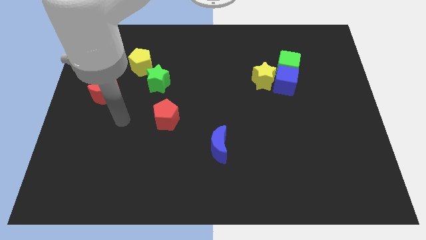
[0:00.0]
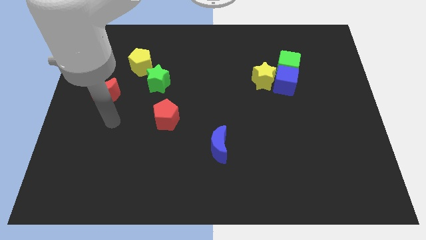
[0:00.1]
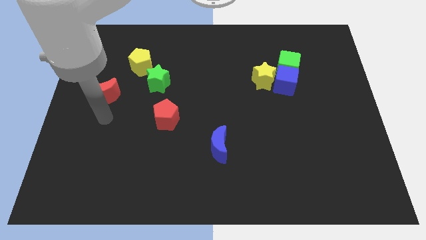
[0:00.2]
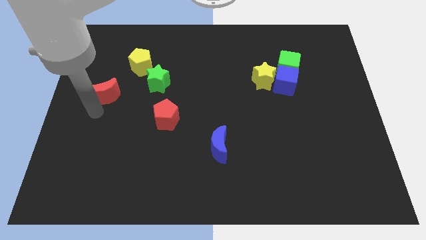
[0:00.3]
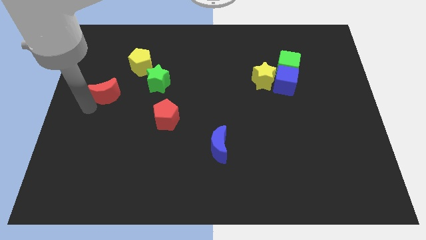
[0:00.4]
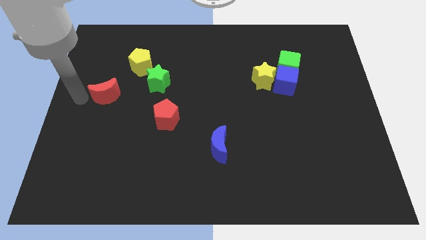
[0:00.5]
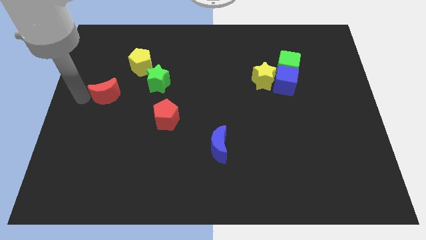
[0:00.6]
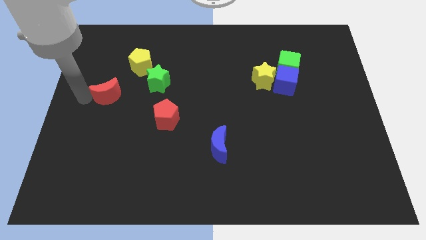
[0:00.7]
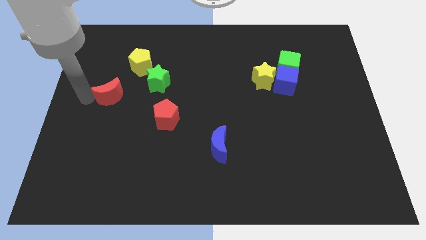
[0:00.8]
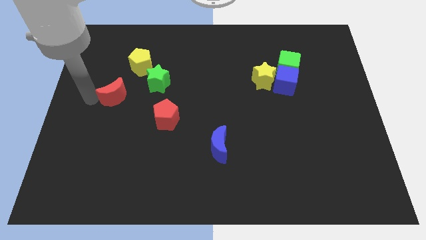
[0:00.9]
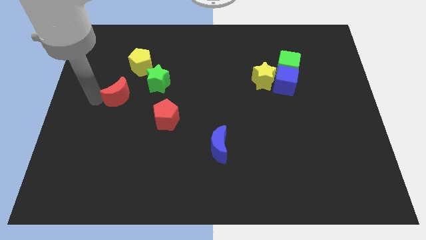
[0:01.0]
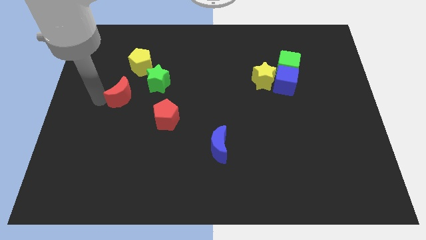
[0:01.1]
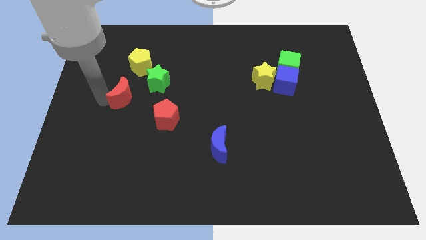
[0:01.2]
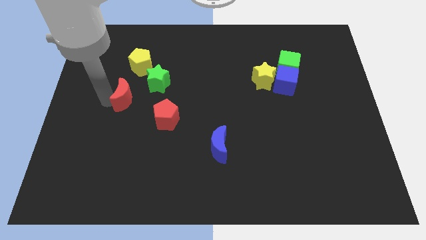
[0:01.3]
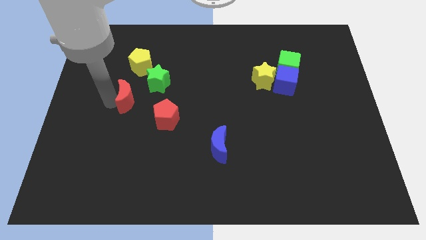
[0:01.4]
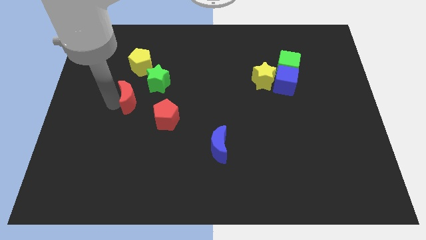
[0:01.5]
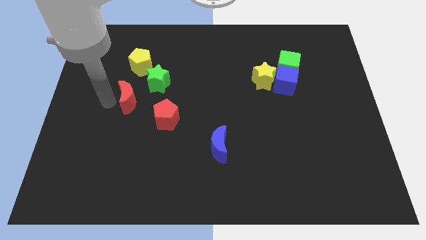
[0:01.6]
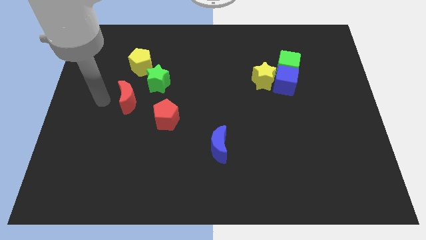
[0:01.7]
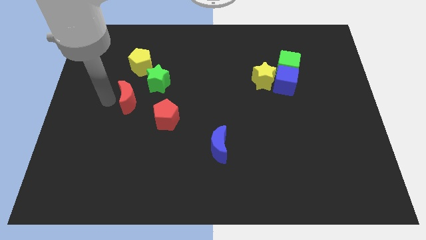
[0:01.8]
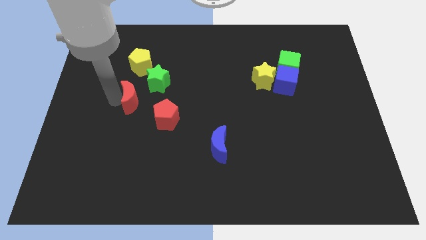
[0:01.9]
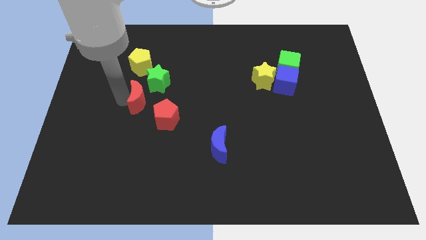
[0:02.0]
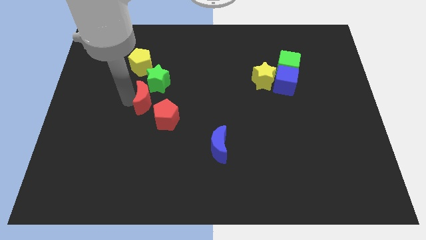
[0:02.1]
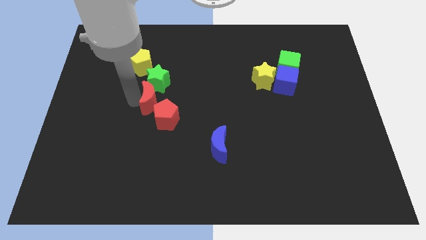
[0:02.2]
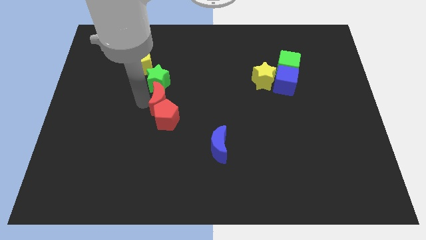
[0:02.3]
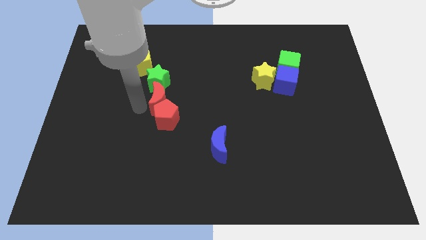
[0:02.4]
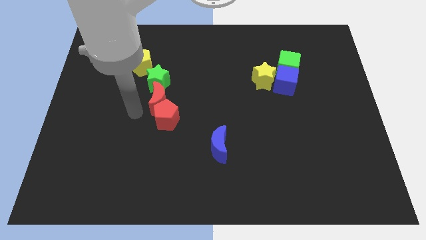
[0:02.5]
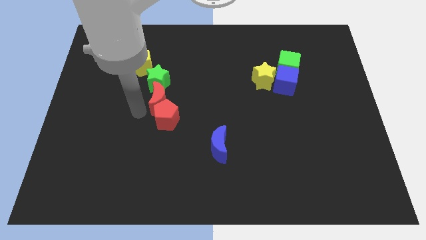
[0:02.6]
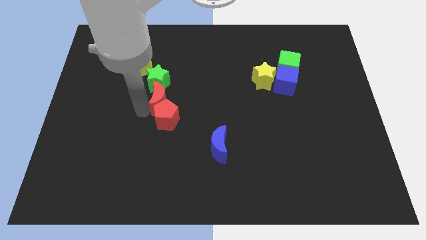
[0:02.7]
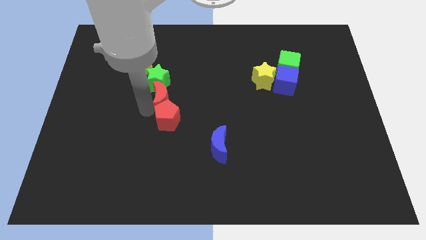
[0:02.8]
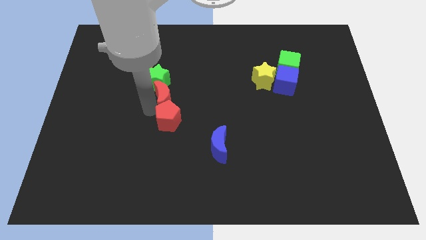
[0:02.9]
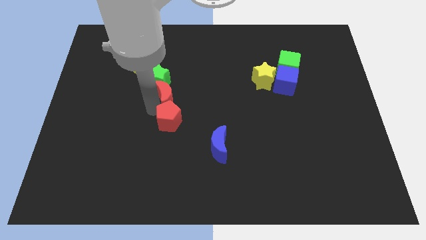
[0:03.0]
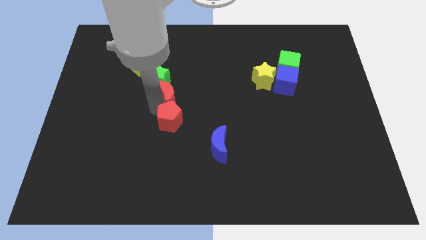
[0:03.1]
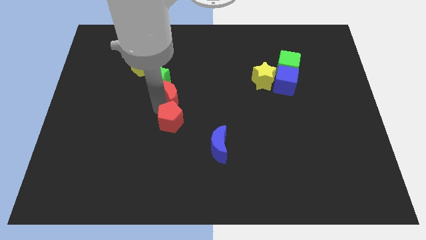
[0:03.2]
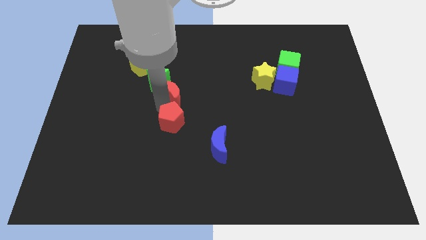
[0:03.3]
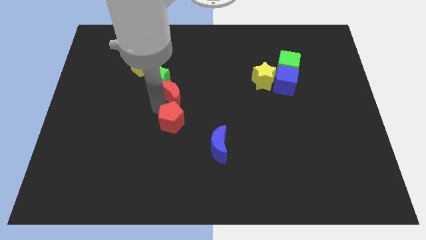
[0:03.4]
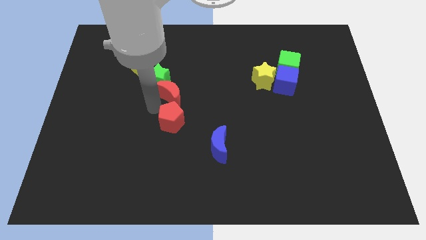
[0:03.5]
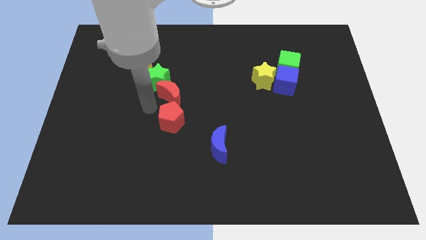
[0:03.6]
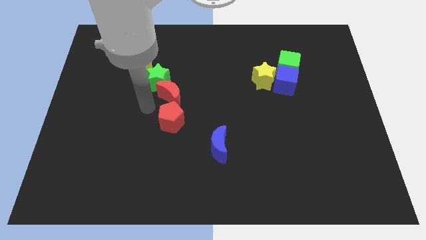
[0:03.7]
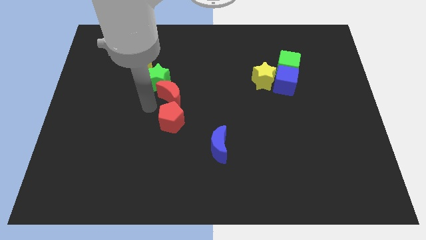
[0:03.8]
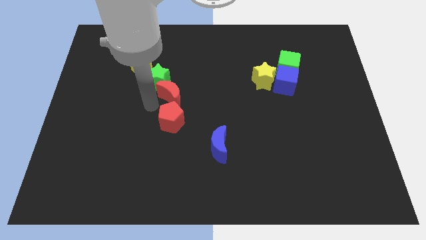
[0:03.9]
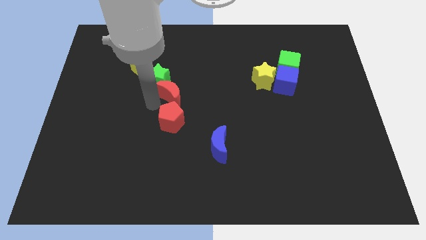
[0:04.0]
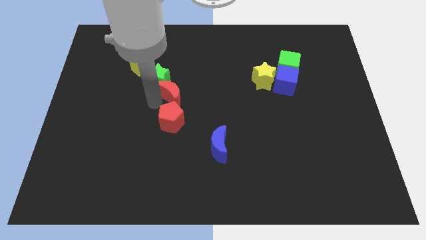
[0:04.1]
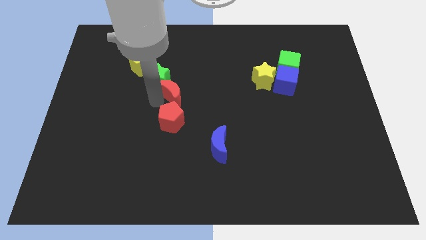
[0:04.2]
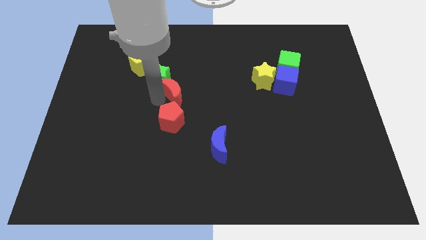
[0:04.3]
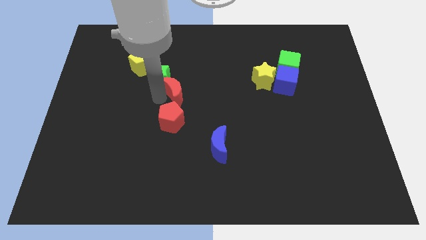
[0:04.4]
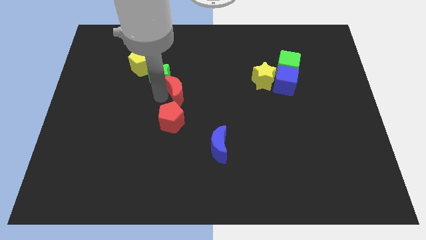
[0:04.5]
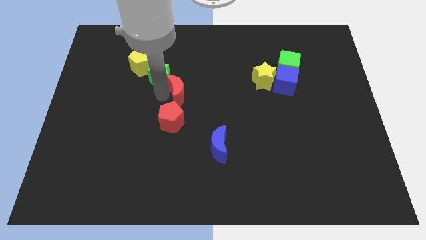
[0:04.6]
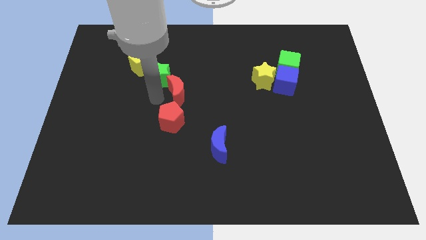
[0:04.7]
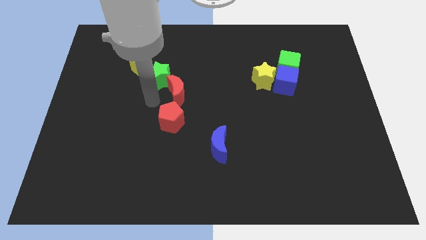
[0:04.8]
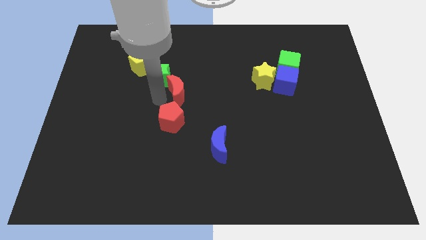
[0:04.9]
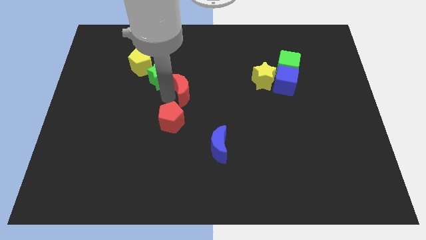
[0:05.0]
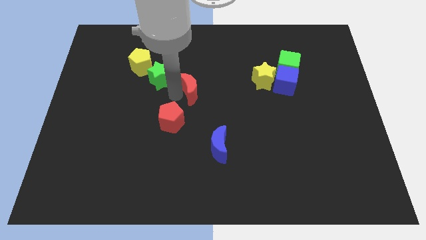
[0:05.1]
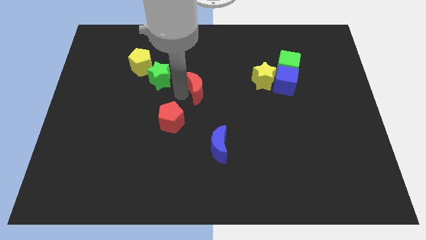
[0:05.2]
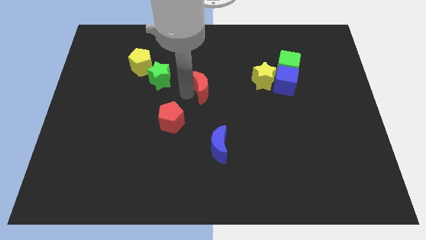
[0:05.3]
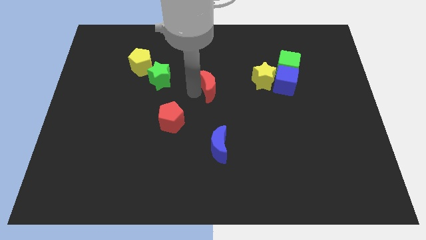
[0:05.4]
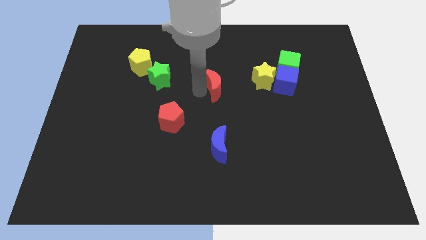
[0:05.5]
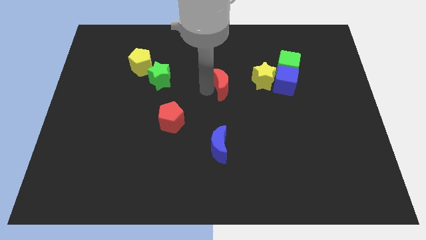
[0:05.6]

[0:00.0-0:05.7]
move the red moon to the left of the blue cube

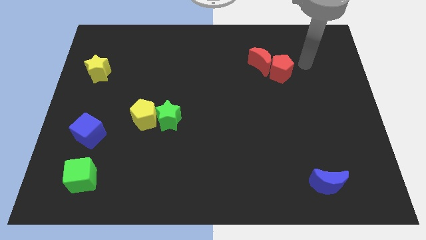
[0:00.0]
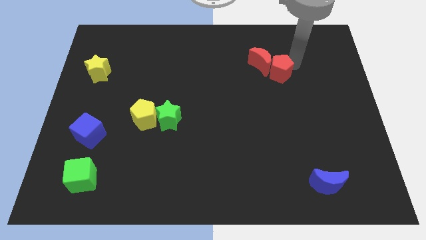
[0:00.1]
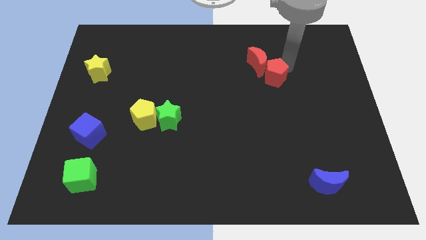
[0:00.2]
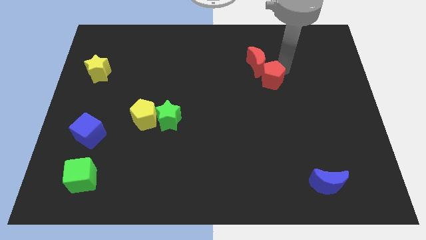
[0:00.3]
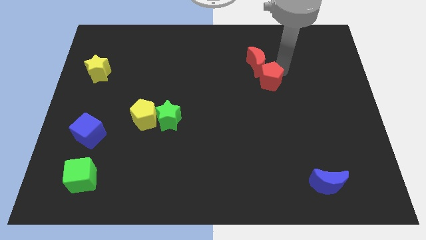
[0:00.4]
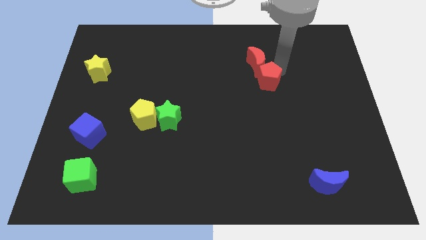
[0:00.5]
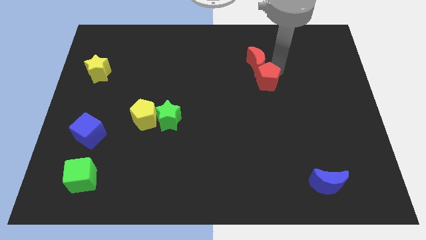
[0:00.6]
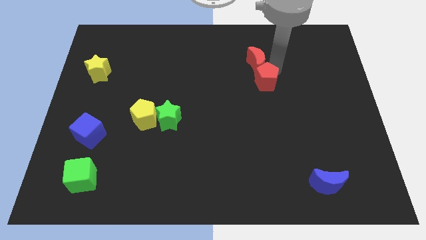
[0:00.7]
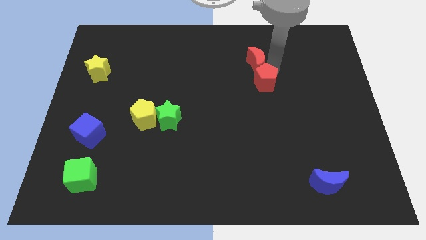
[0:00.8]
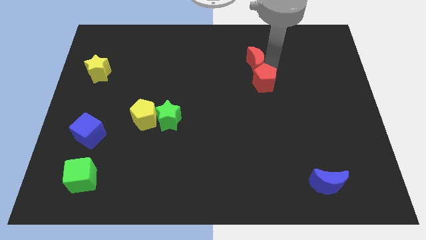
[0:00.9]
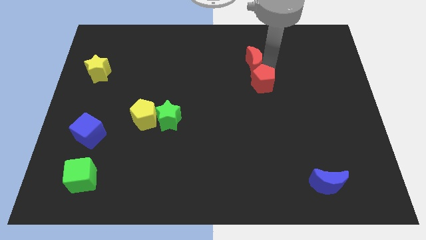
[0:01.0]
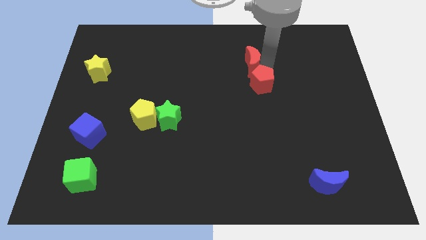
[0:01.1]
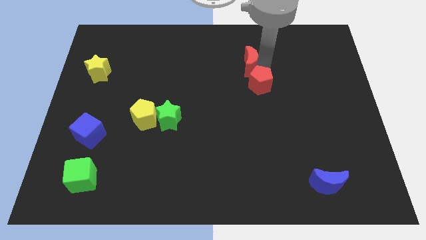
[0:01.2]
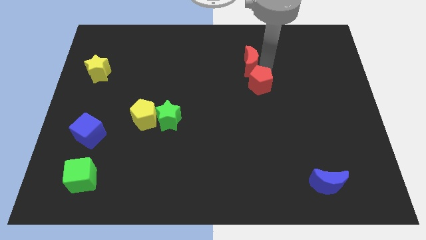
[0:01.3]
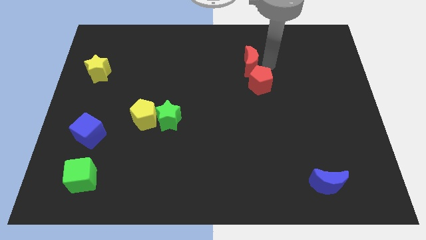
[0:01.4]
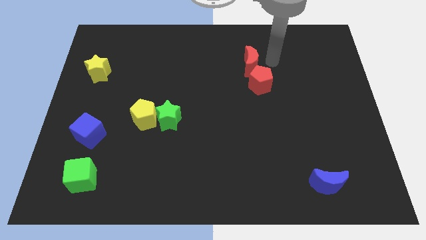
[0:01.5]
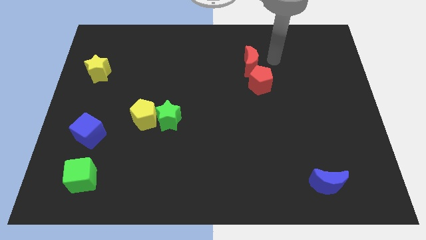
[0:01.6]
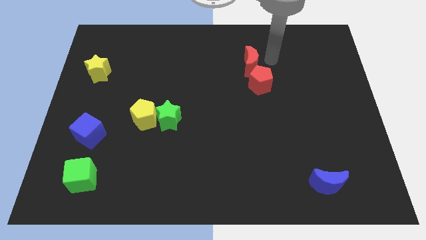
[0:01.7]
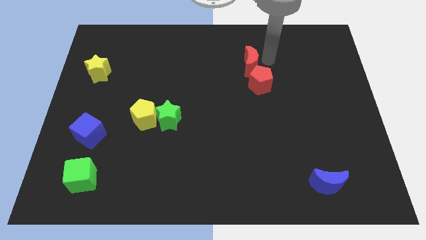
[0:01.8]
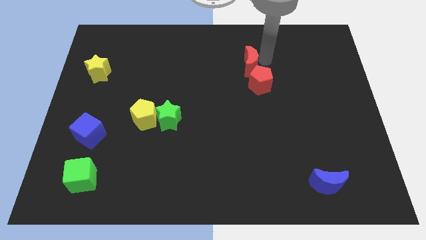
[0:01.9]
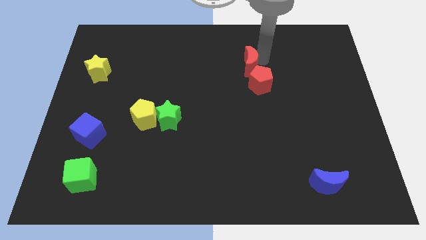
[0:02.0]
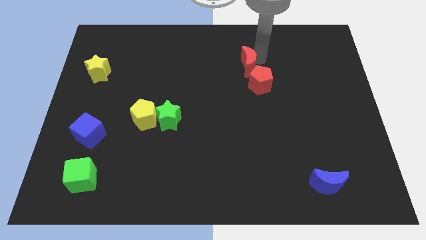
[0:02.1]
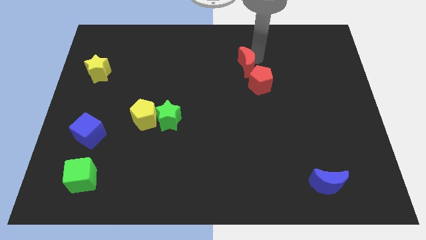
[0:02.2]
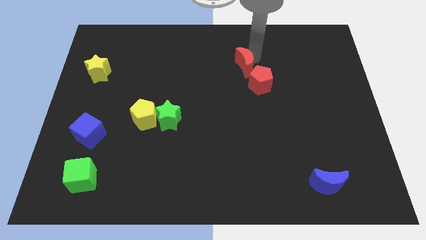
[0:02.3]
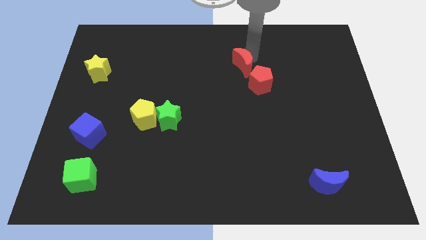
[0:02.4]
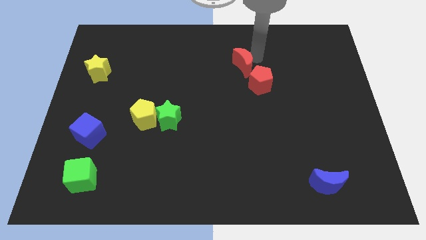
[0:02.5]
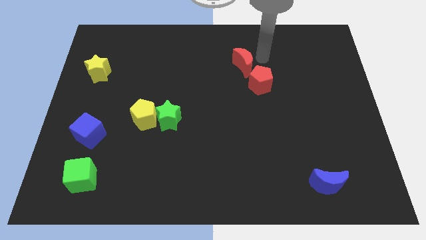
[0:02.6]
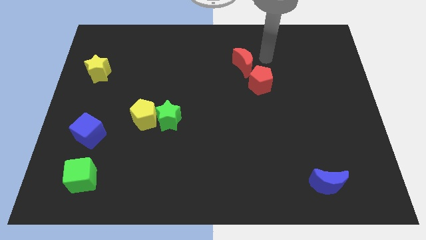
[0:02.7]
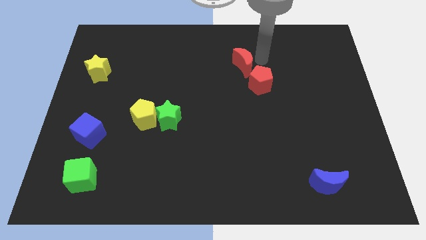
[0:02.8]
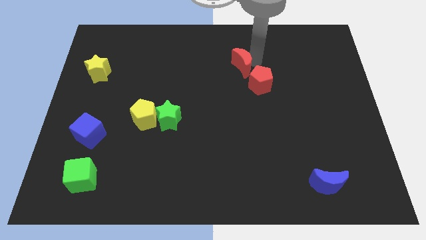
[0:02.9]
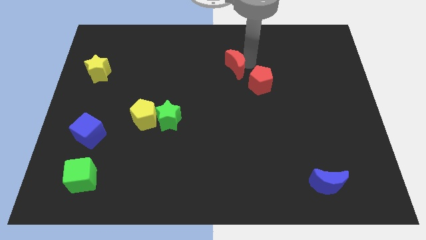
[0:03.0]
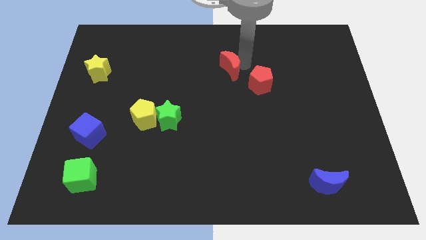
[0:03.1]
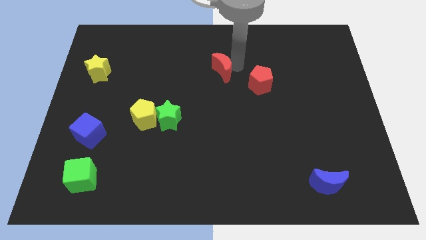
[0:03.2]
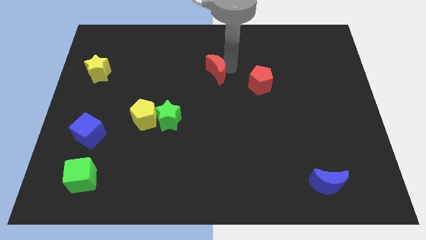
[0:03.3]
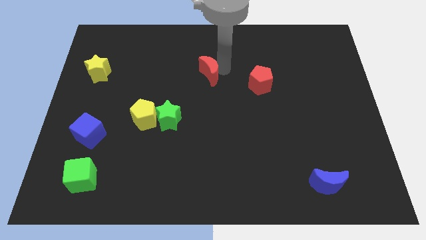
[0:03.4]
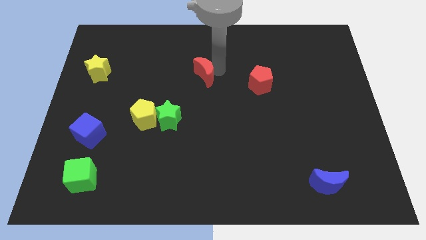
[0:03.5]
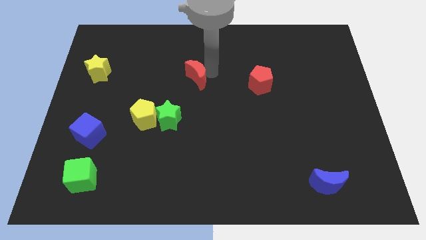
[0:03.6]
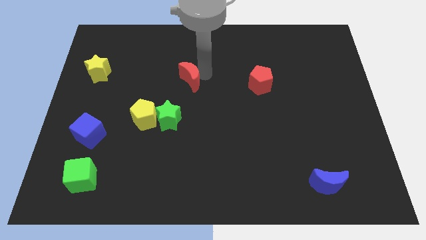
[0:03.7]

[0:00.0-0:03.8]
slide the red moon to the top side of the green star
